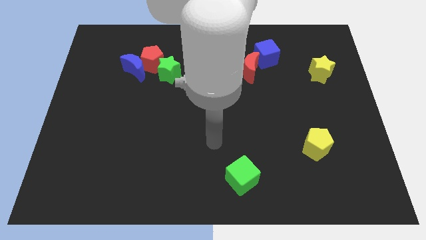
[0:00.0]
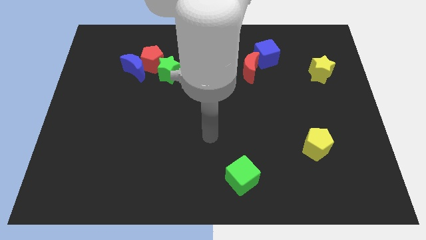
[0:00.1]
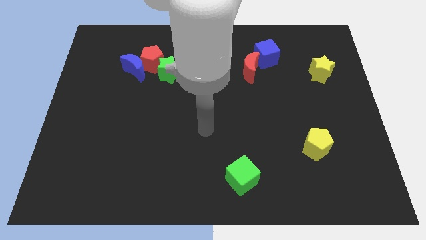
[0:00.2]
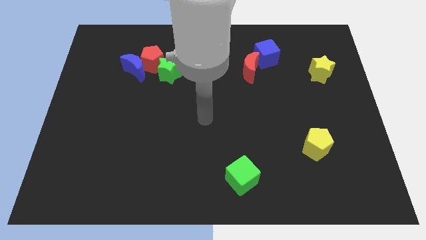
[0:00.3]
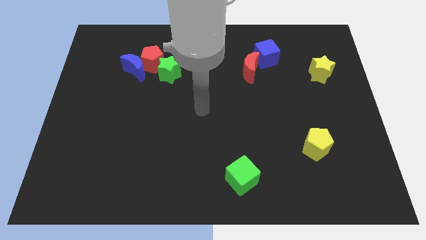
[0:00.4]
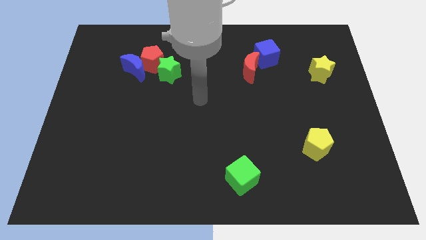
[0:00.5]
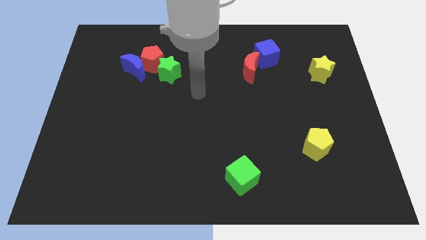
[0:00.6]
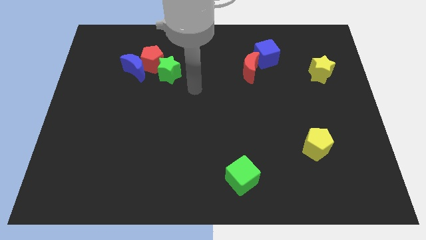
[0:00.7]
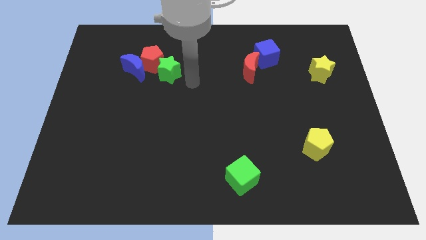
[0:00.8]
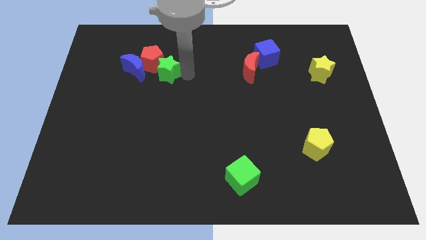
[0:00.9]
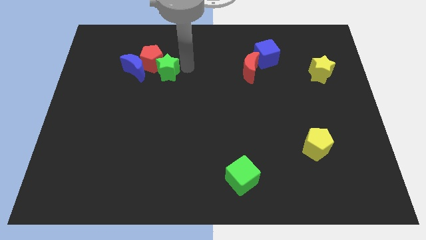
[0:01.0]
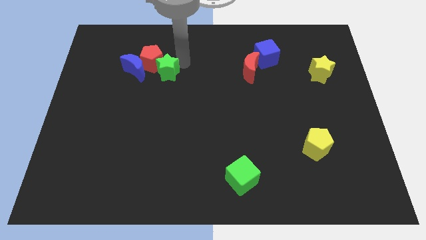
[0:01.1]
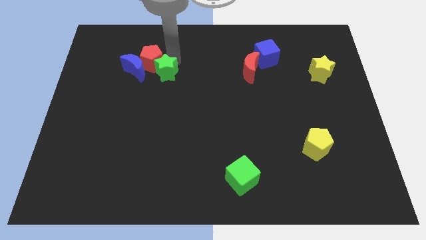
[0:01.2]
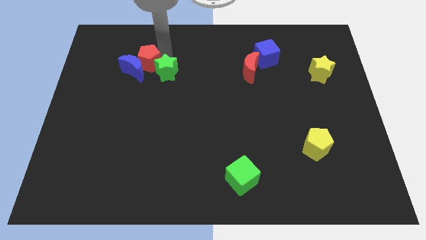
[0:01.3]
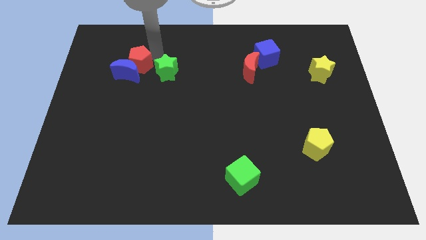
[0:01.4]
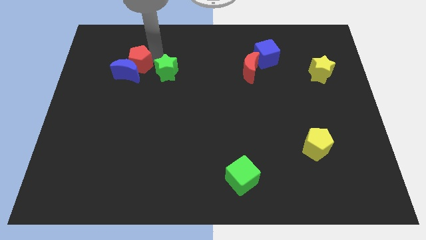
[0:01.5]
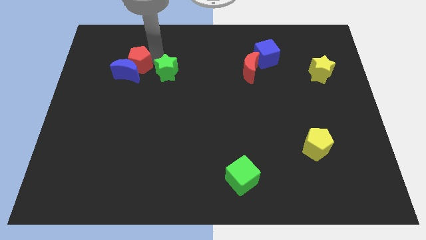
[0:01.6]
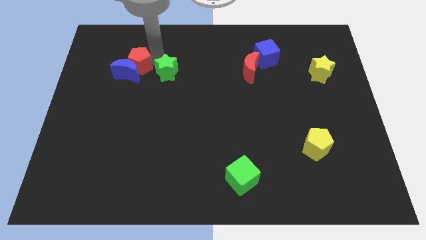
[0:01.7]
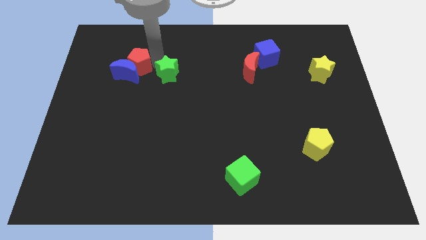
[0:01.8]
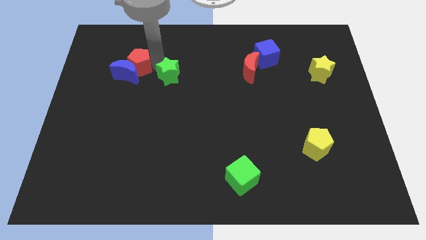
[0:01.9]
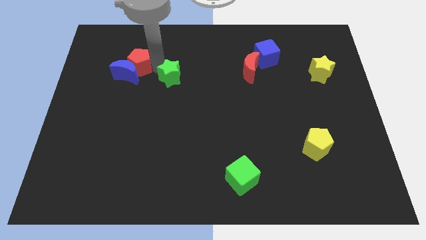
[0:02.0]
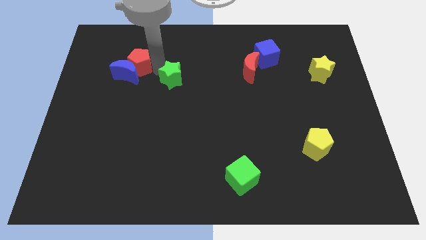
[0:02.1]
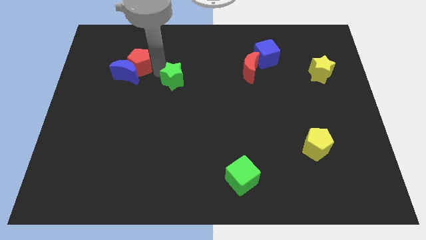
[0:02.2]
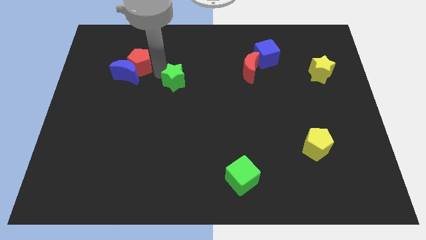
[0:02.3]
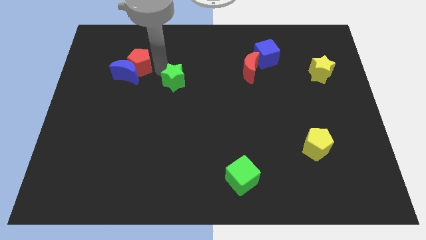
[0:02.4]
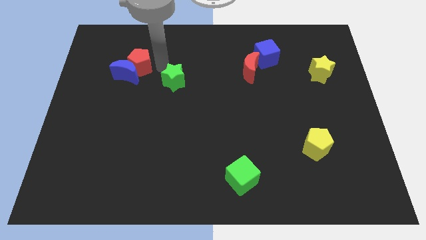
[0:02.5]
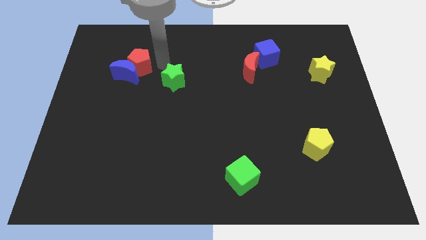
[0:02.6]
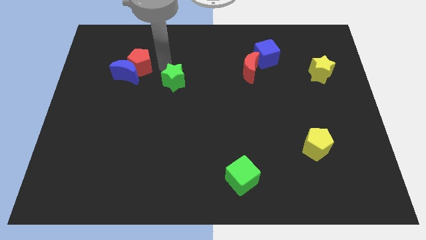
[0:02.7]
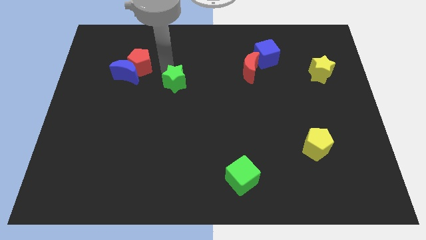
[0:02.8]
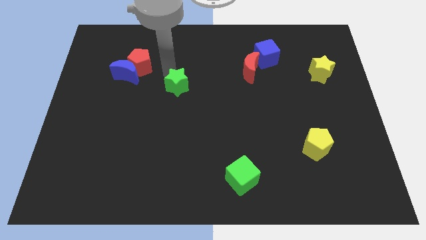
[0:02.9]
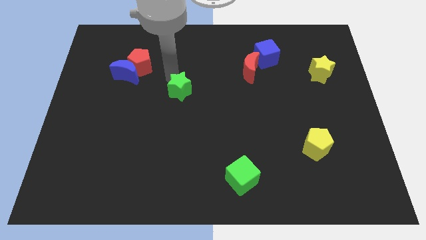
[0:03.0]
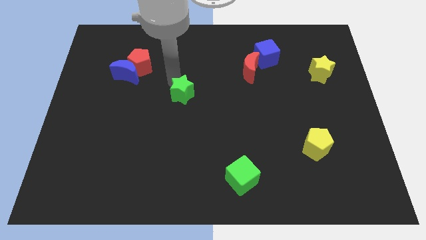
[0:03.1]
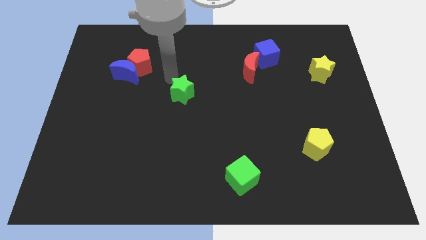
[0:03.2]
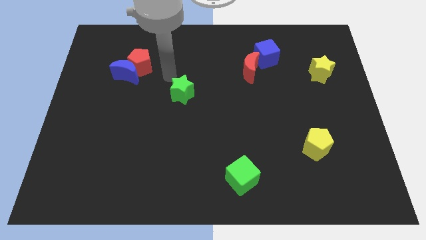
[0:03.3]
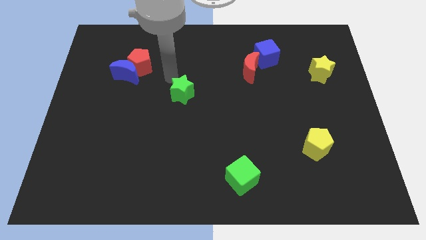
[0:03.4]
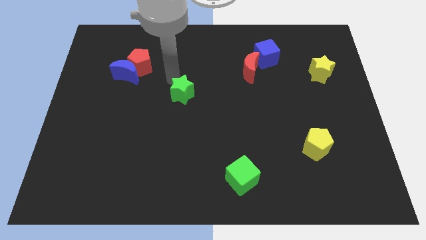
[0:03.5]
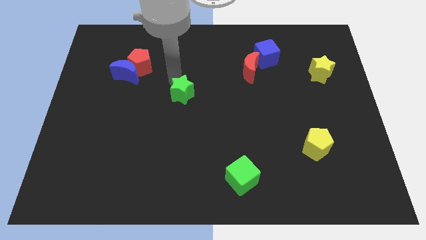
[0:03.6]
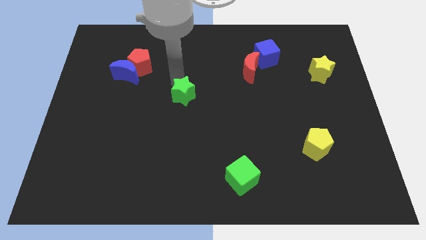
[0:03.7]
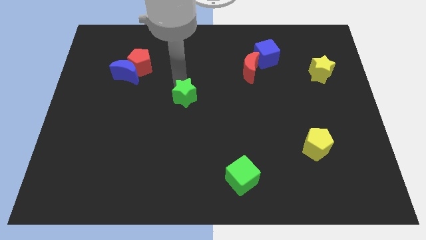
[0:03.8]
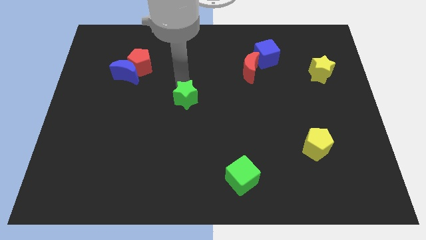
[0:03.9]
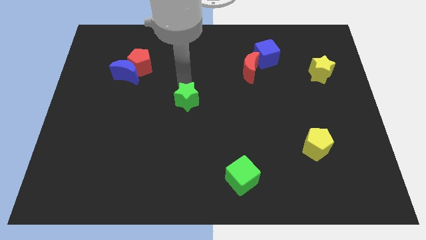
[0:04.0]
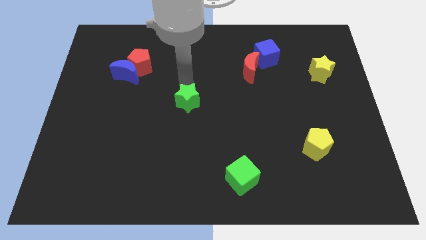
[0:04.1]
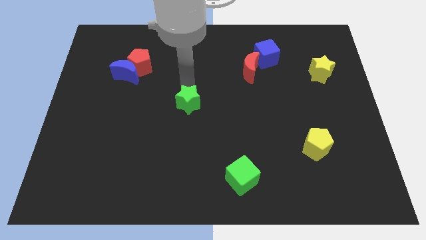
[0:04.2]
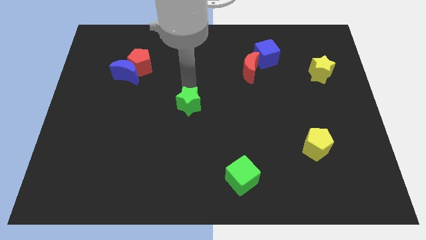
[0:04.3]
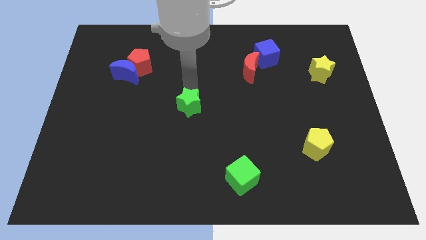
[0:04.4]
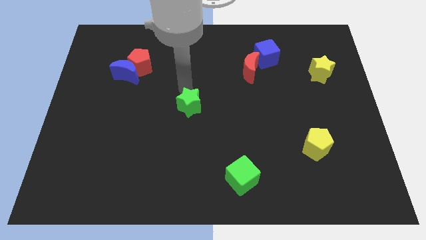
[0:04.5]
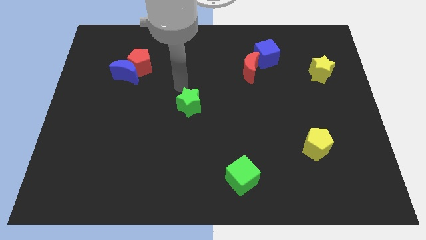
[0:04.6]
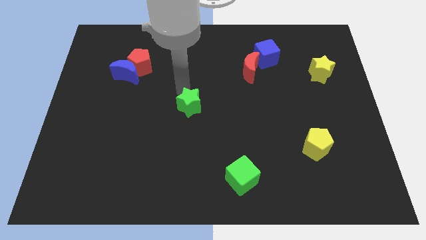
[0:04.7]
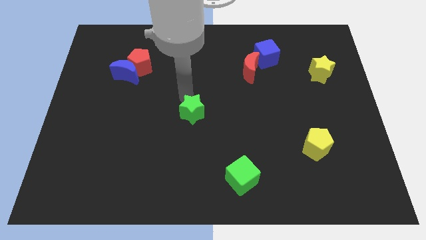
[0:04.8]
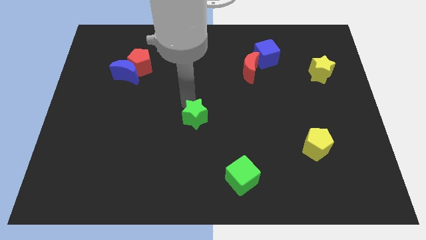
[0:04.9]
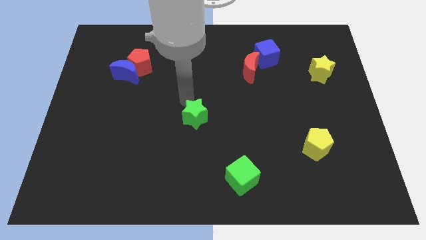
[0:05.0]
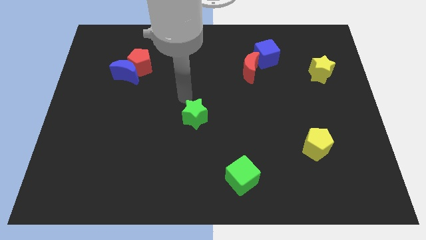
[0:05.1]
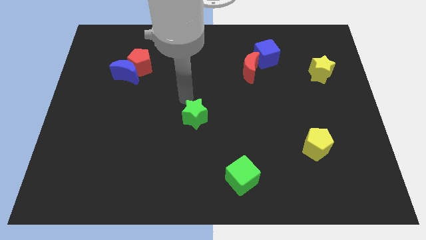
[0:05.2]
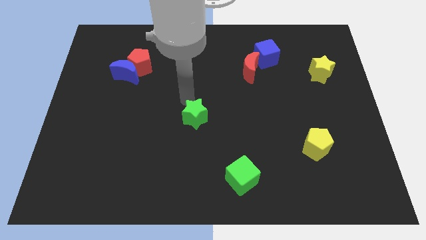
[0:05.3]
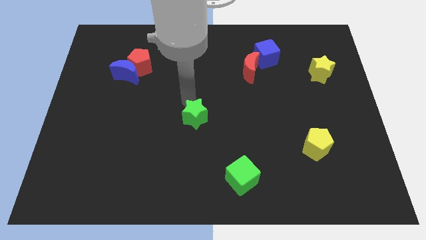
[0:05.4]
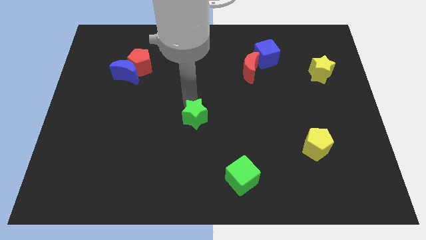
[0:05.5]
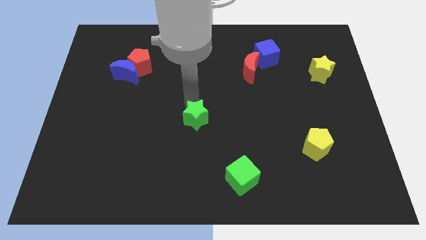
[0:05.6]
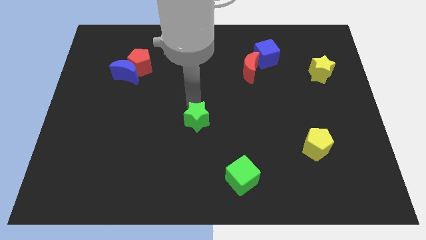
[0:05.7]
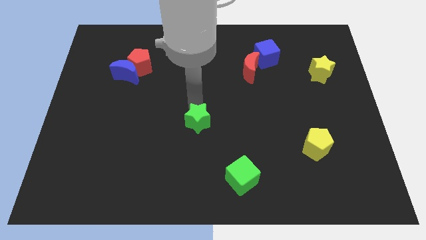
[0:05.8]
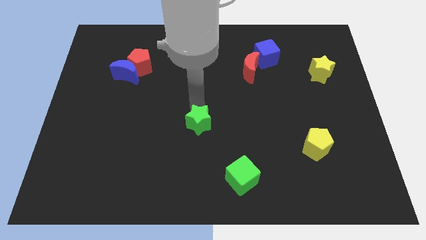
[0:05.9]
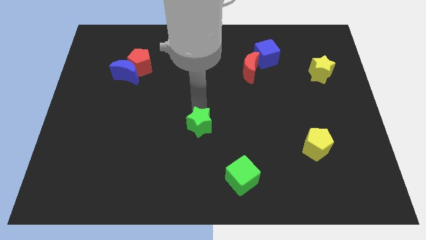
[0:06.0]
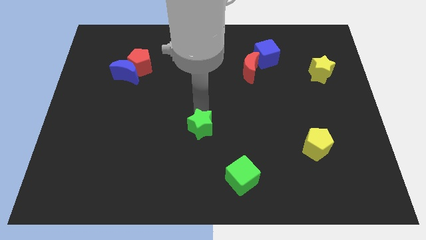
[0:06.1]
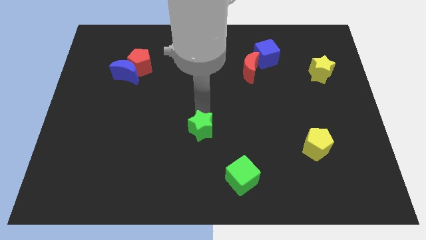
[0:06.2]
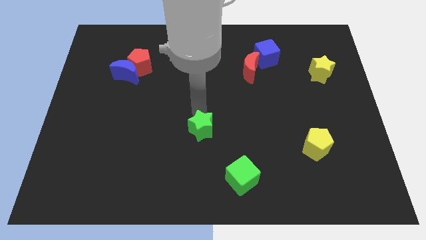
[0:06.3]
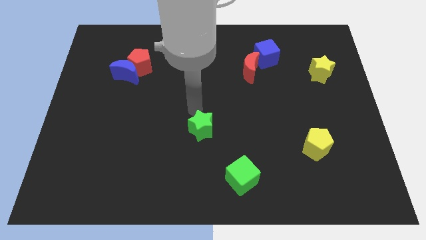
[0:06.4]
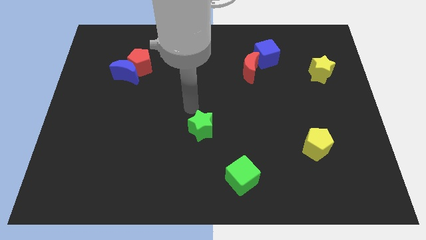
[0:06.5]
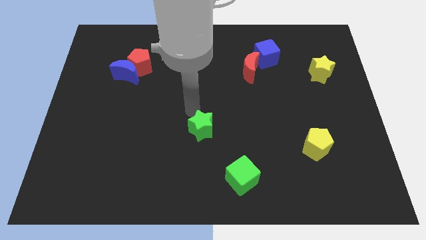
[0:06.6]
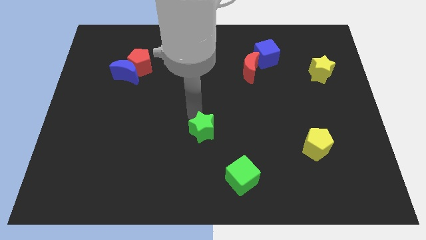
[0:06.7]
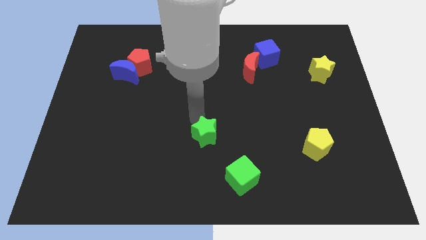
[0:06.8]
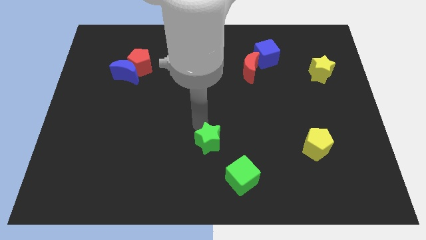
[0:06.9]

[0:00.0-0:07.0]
push the green star to the top left side of the green cube
